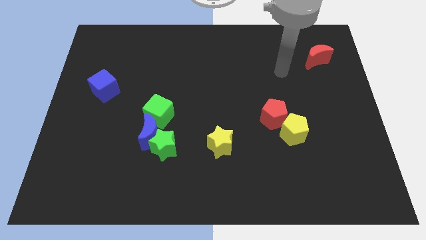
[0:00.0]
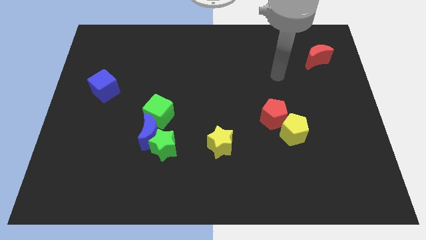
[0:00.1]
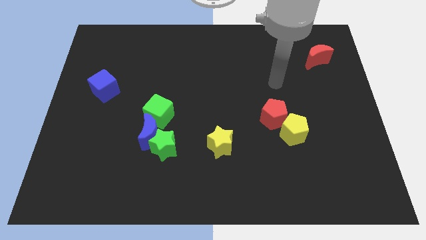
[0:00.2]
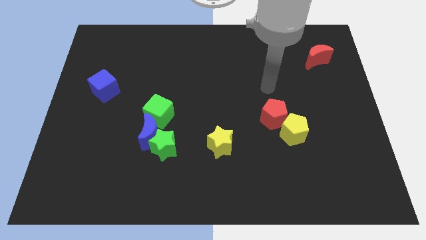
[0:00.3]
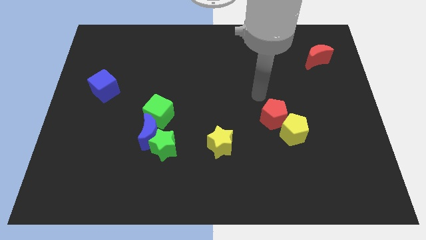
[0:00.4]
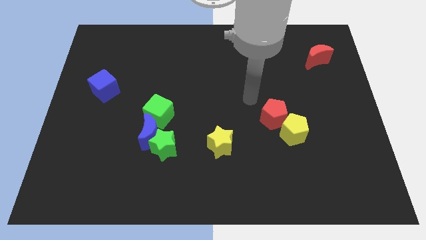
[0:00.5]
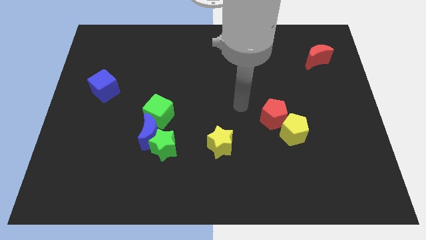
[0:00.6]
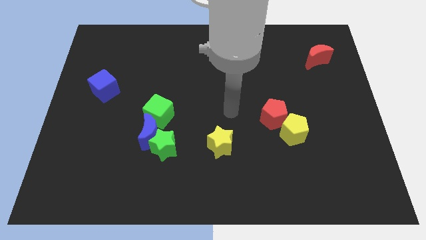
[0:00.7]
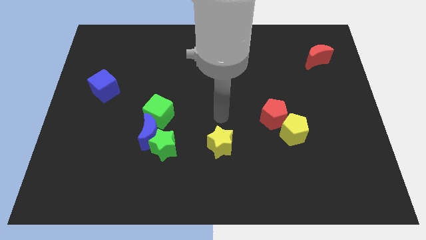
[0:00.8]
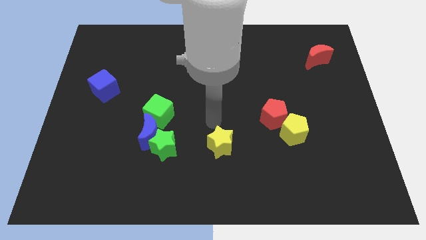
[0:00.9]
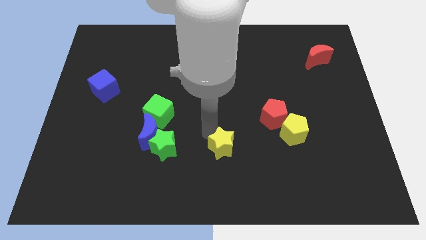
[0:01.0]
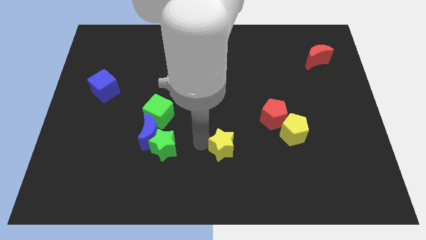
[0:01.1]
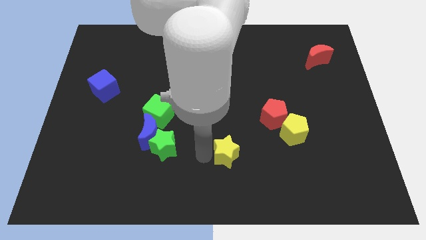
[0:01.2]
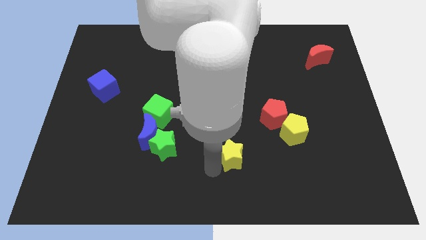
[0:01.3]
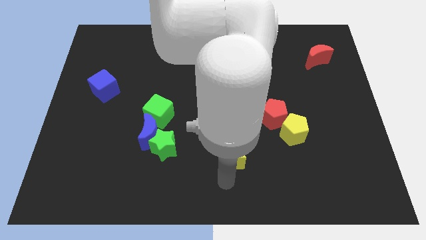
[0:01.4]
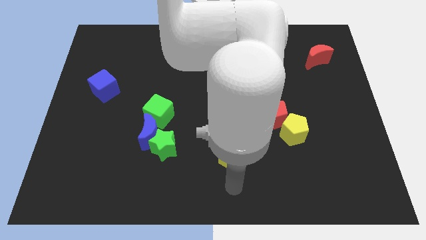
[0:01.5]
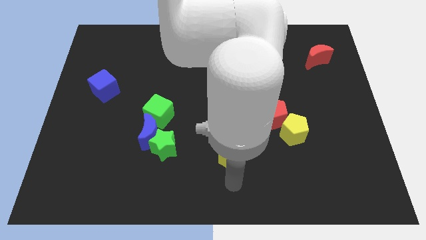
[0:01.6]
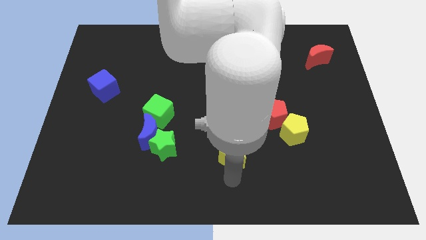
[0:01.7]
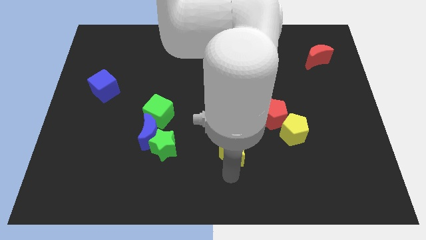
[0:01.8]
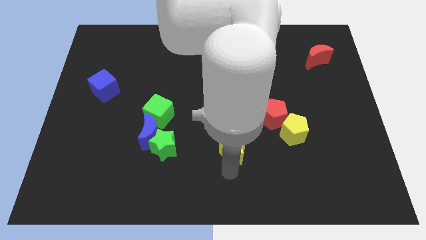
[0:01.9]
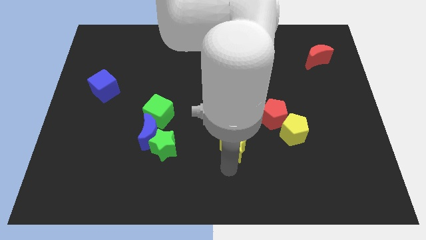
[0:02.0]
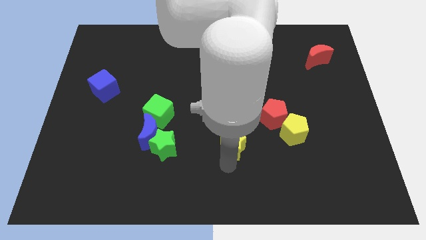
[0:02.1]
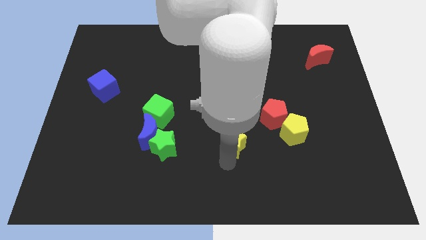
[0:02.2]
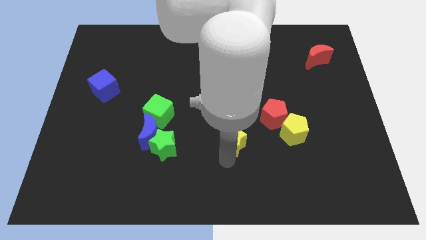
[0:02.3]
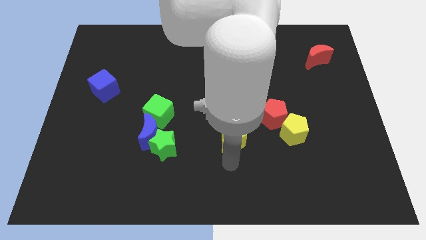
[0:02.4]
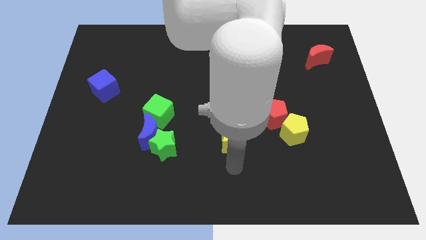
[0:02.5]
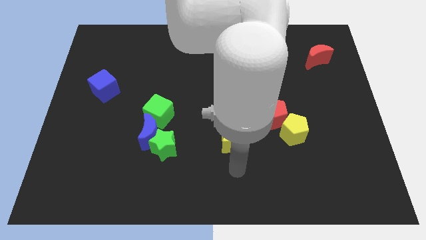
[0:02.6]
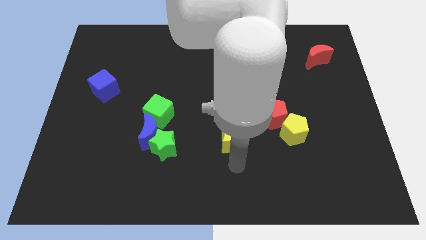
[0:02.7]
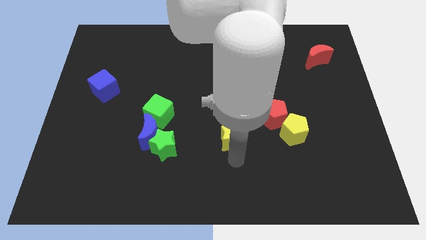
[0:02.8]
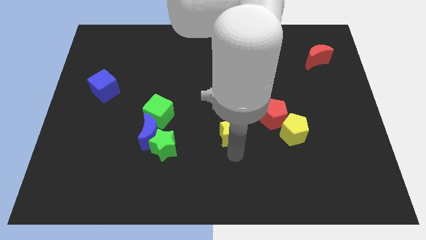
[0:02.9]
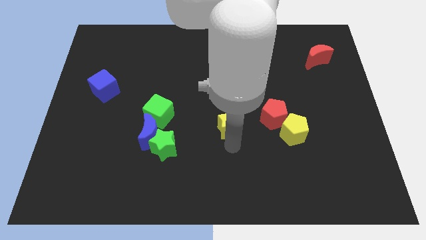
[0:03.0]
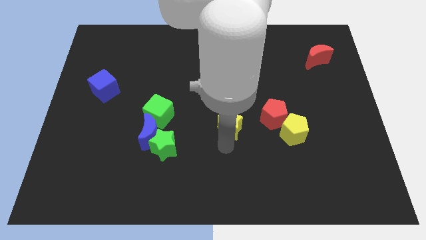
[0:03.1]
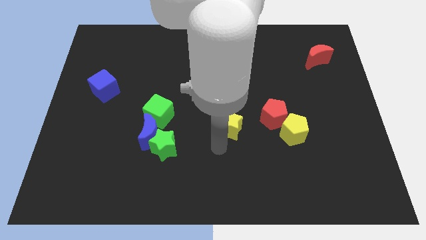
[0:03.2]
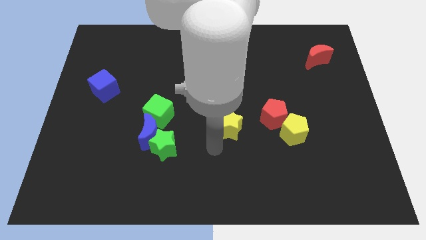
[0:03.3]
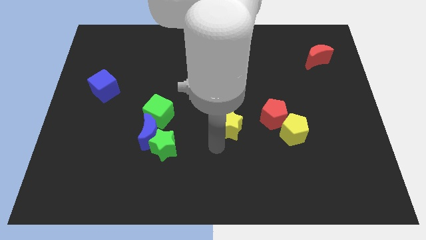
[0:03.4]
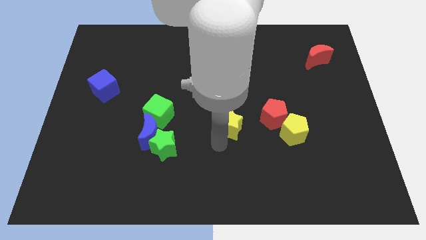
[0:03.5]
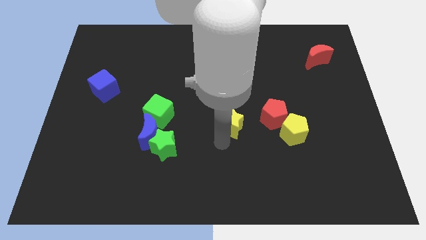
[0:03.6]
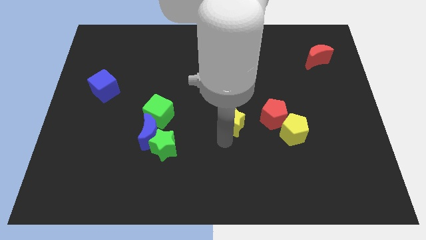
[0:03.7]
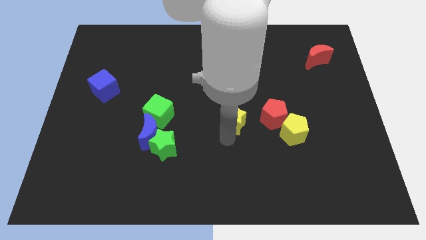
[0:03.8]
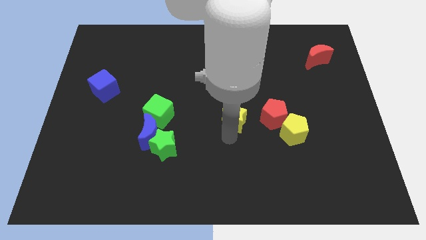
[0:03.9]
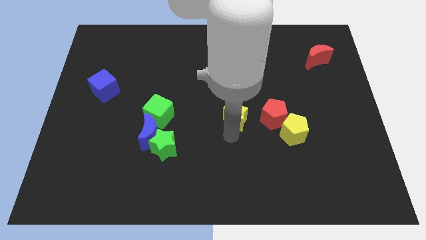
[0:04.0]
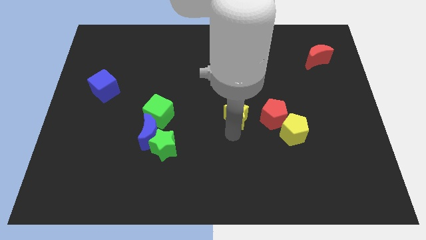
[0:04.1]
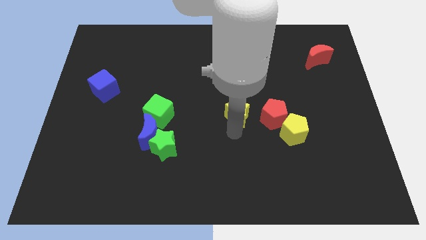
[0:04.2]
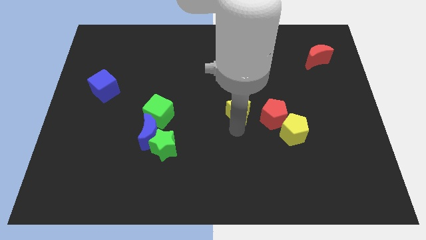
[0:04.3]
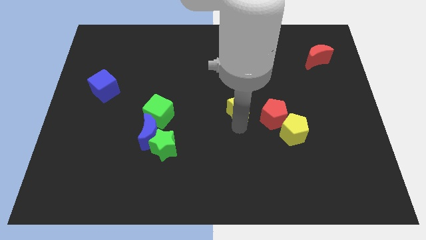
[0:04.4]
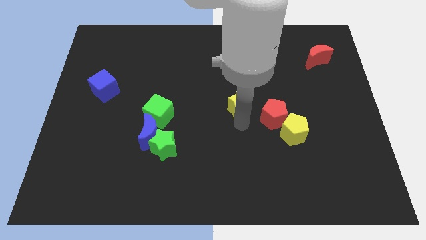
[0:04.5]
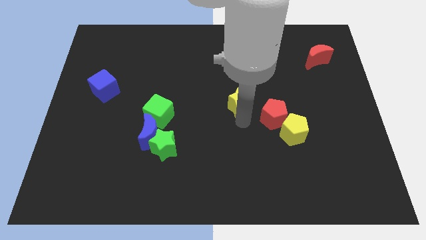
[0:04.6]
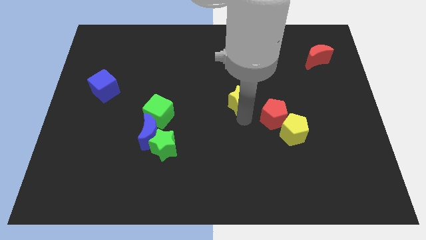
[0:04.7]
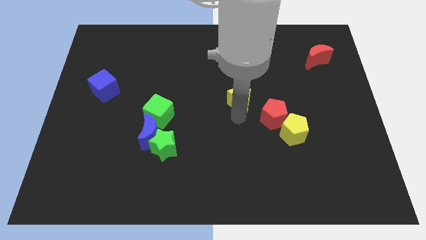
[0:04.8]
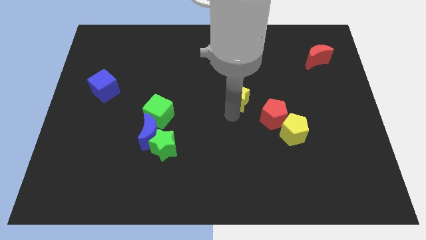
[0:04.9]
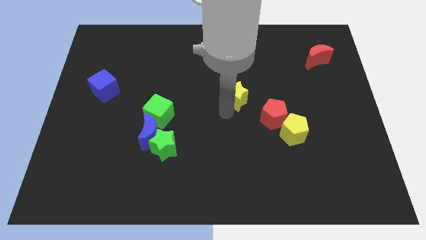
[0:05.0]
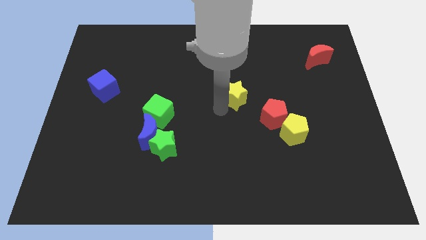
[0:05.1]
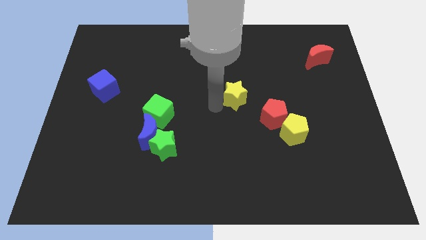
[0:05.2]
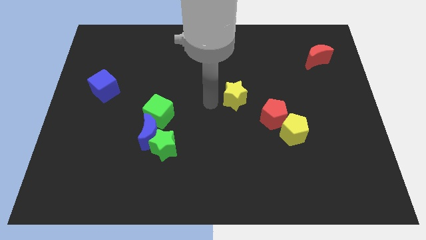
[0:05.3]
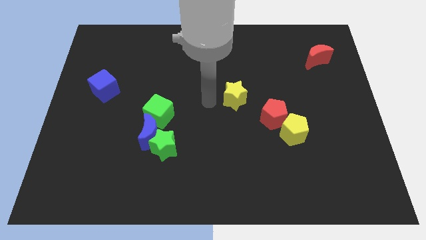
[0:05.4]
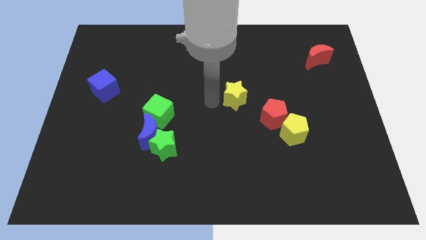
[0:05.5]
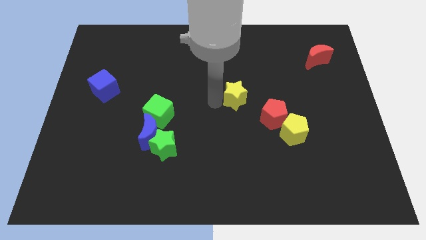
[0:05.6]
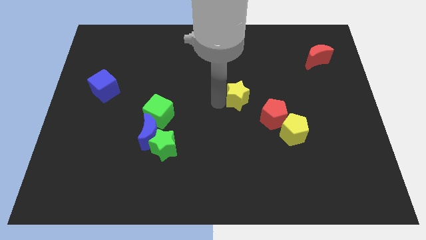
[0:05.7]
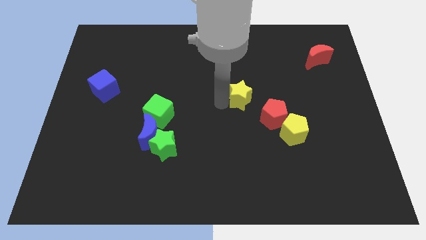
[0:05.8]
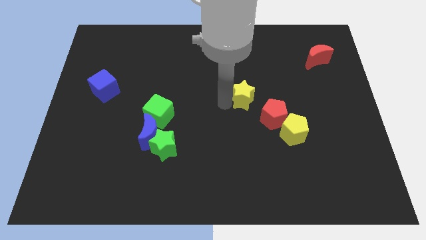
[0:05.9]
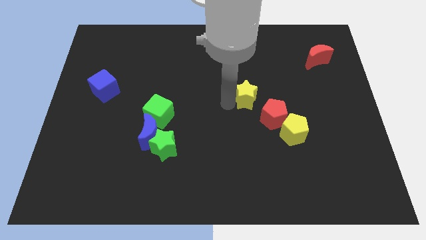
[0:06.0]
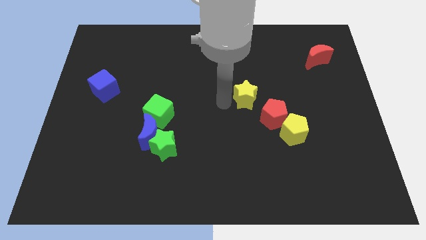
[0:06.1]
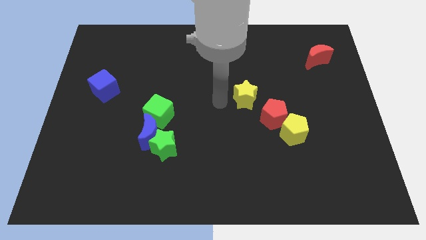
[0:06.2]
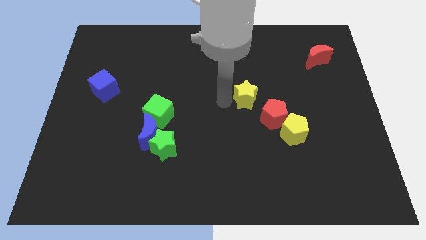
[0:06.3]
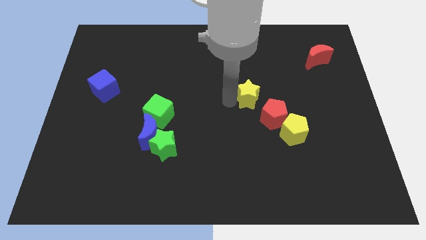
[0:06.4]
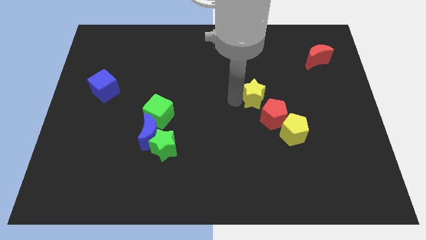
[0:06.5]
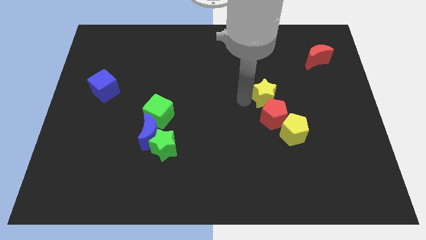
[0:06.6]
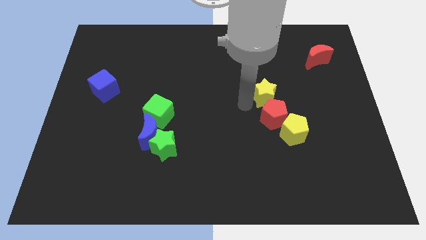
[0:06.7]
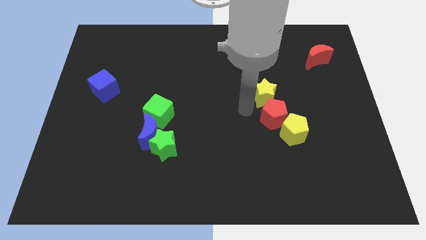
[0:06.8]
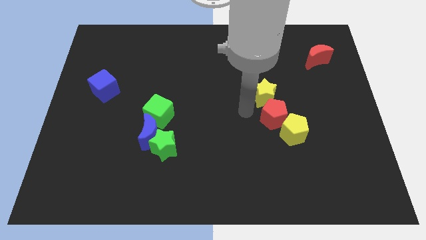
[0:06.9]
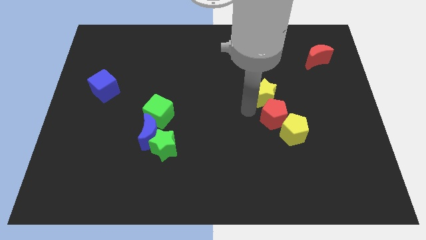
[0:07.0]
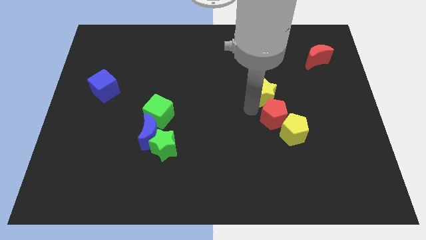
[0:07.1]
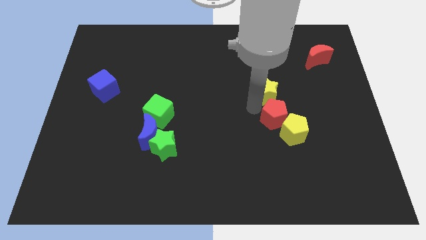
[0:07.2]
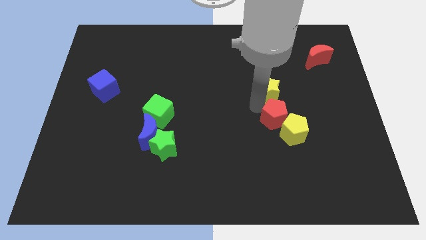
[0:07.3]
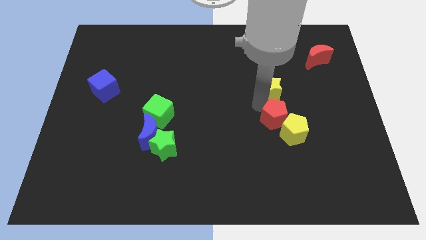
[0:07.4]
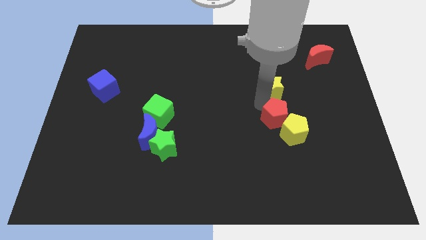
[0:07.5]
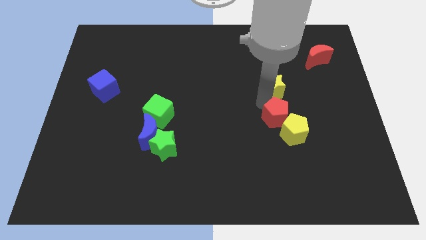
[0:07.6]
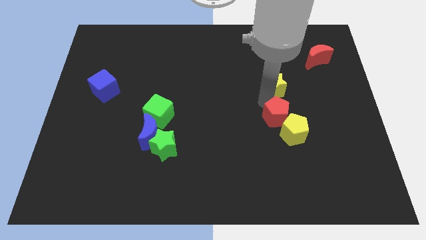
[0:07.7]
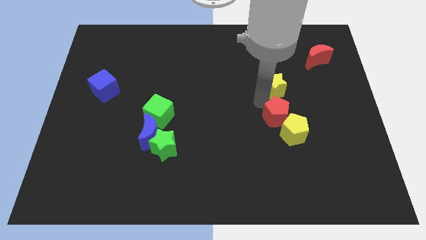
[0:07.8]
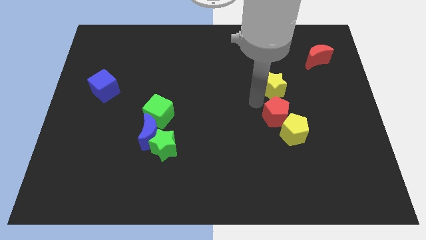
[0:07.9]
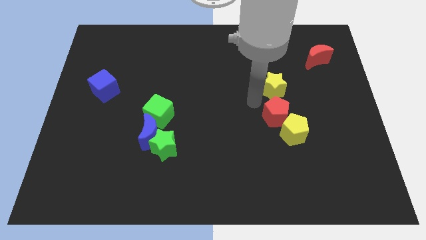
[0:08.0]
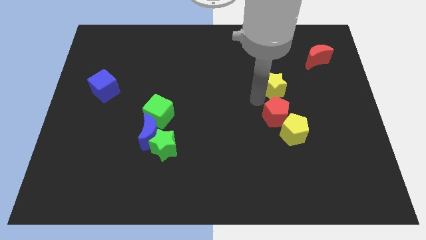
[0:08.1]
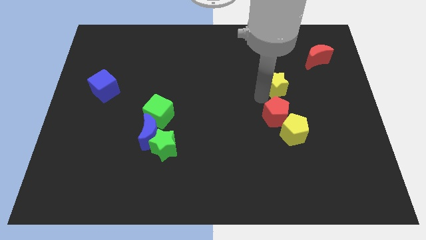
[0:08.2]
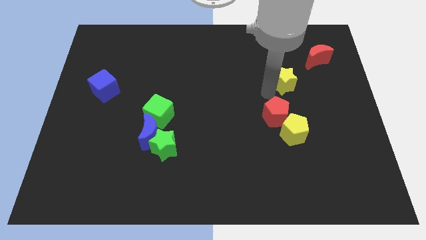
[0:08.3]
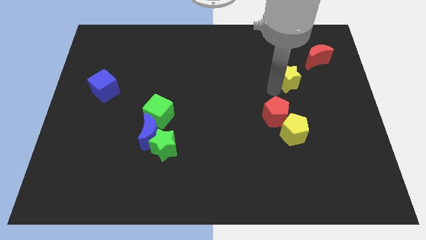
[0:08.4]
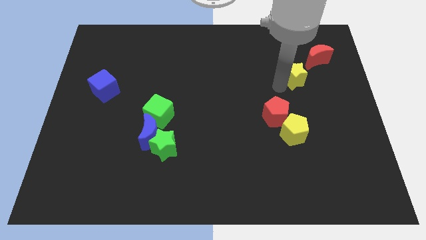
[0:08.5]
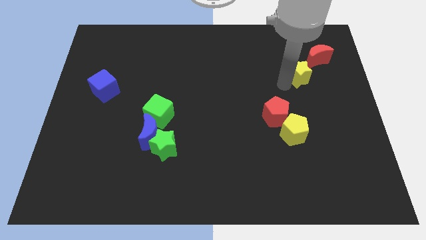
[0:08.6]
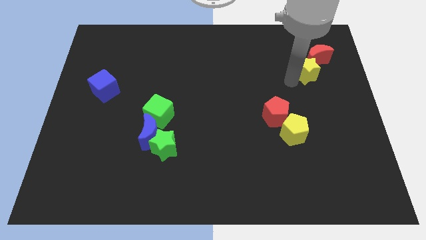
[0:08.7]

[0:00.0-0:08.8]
slide the yellow star close to the red moon
